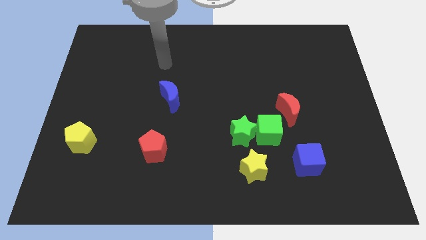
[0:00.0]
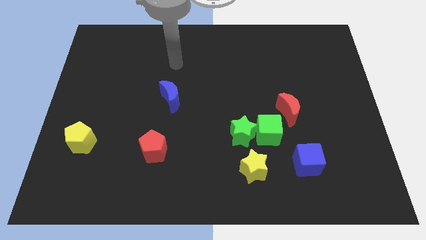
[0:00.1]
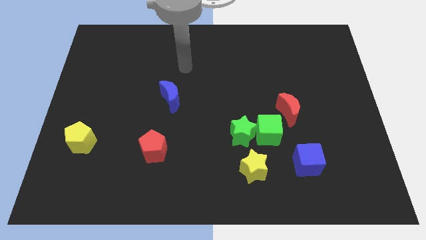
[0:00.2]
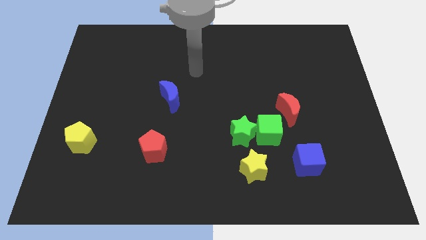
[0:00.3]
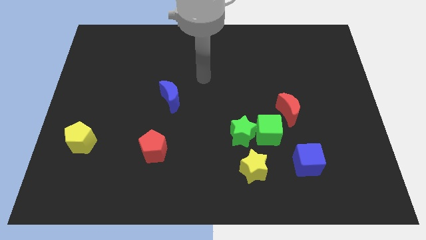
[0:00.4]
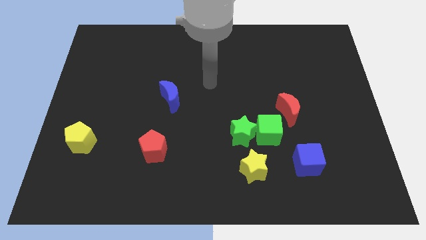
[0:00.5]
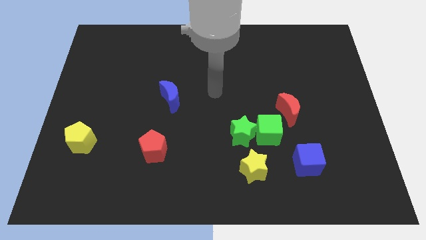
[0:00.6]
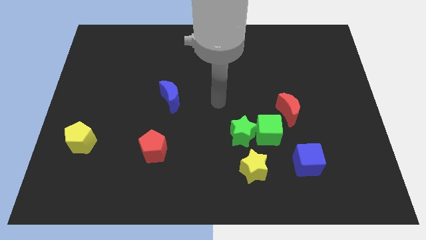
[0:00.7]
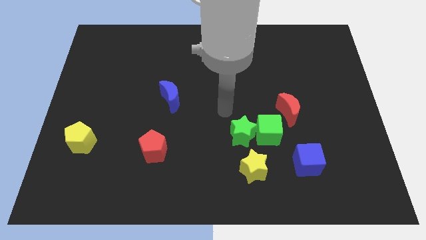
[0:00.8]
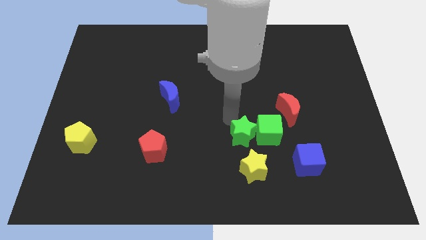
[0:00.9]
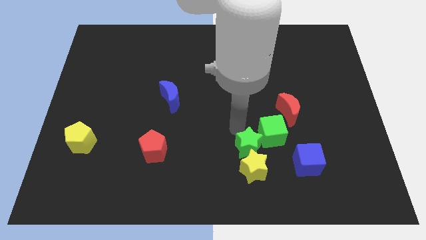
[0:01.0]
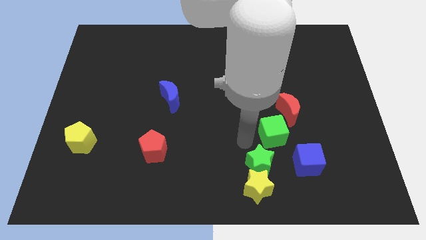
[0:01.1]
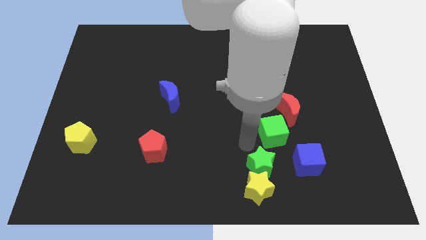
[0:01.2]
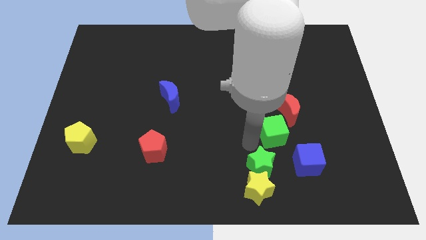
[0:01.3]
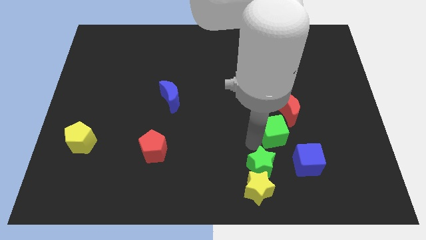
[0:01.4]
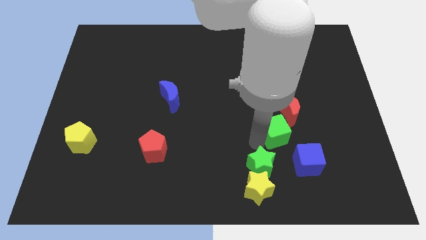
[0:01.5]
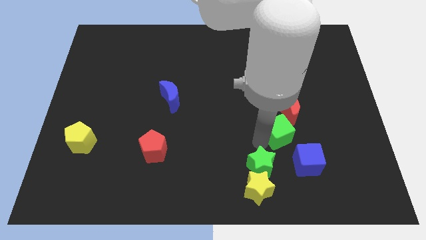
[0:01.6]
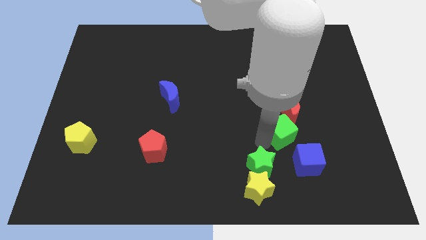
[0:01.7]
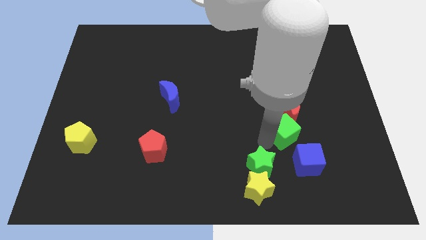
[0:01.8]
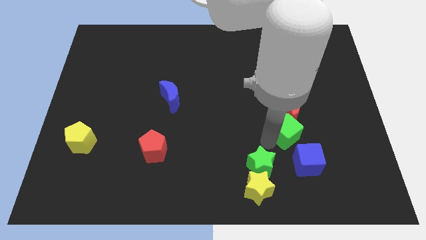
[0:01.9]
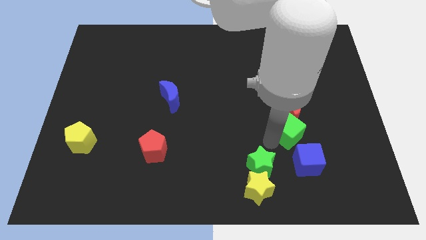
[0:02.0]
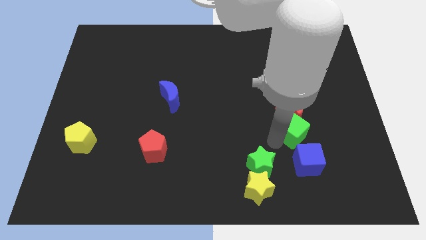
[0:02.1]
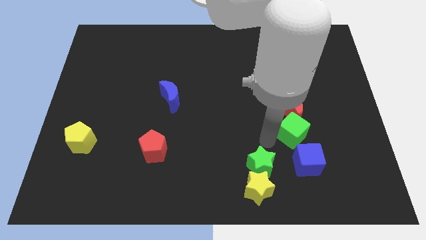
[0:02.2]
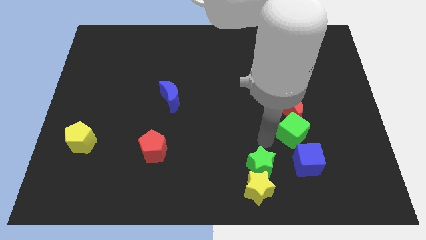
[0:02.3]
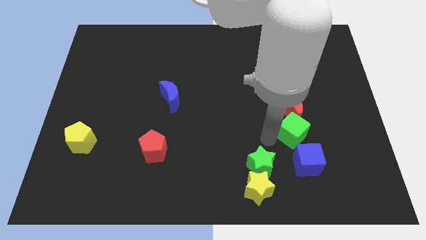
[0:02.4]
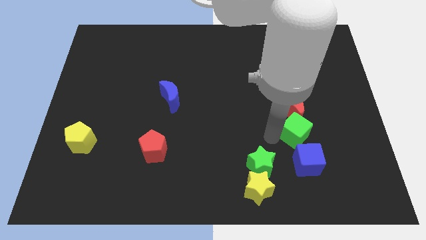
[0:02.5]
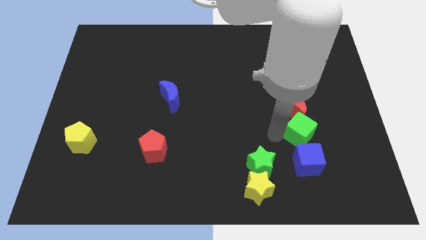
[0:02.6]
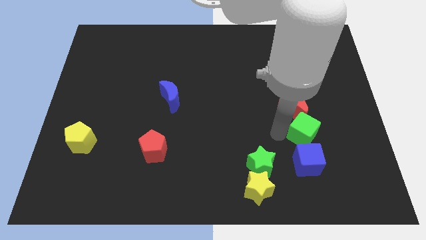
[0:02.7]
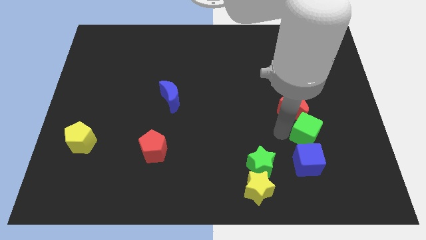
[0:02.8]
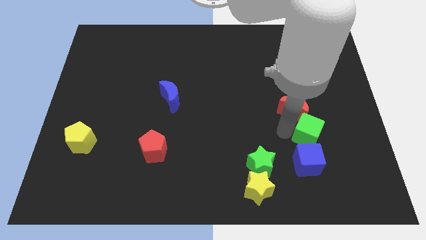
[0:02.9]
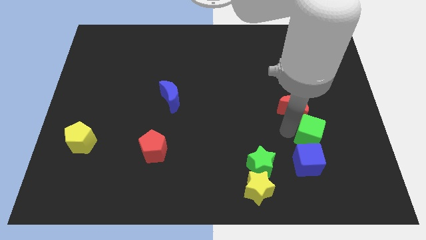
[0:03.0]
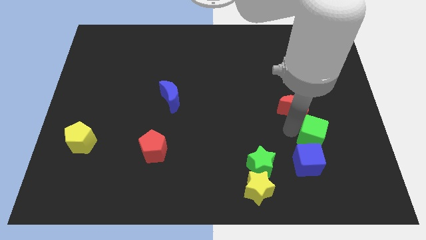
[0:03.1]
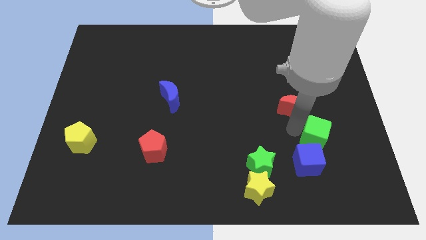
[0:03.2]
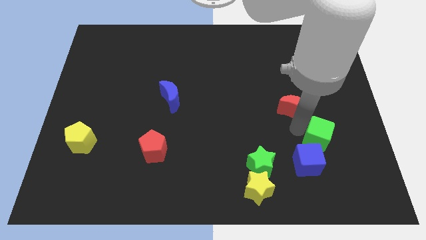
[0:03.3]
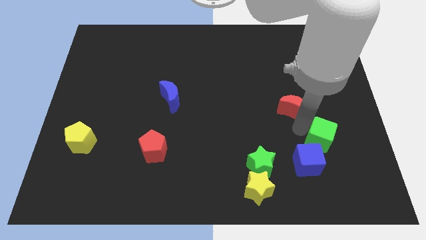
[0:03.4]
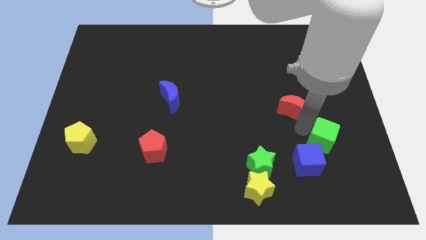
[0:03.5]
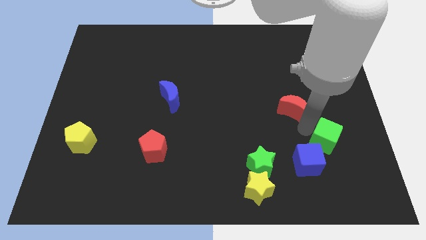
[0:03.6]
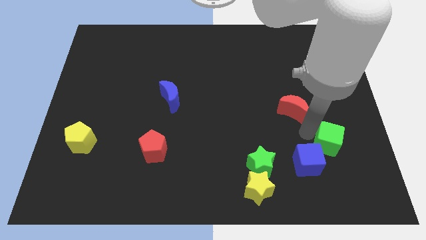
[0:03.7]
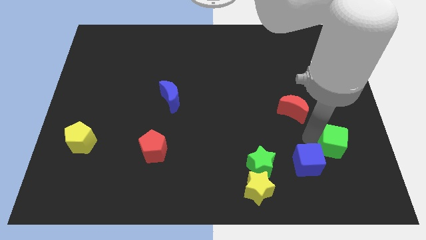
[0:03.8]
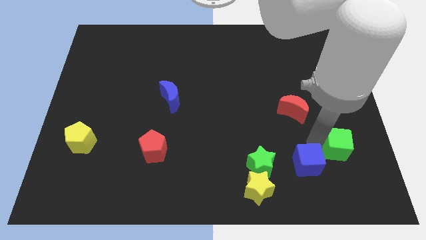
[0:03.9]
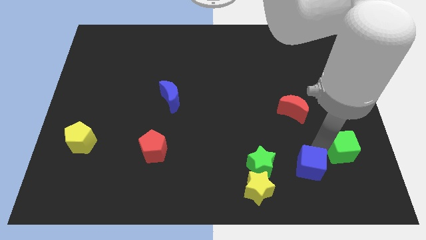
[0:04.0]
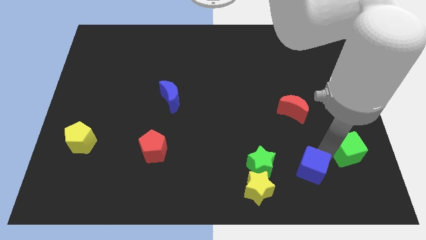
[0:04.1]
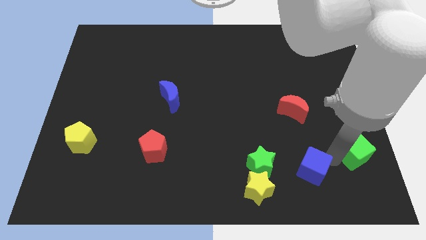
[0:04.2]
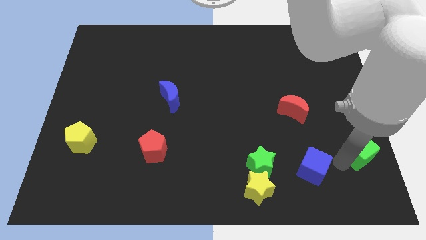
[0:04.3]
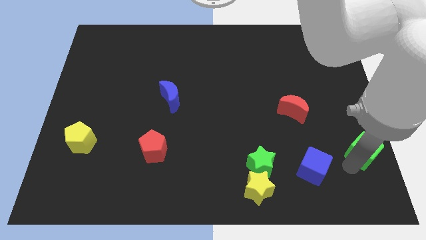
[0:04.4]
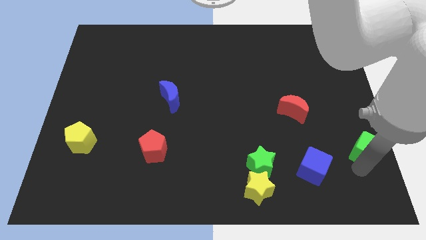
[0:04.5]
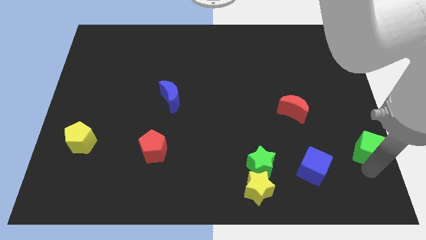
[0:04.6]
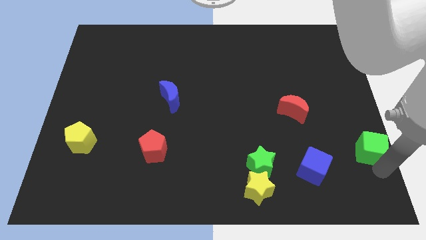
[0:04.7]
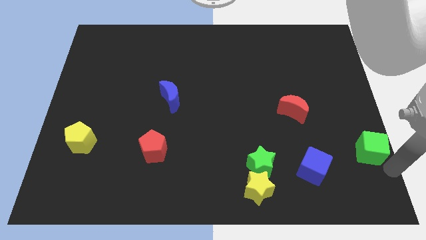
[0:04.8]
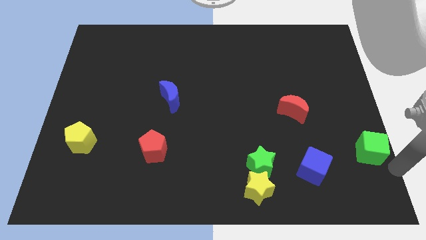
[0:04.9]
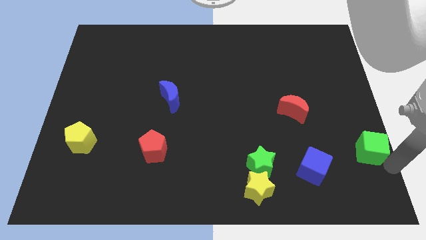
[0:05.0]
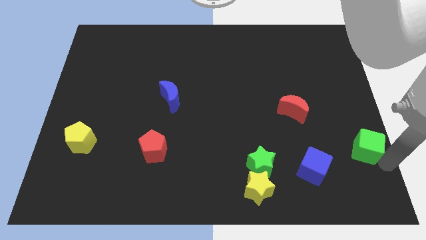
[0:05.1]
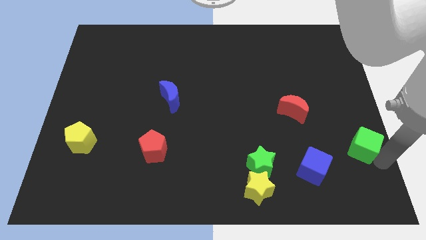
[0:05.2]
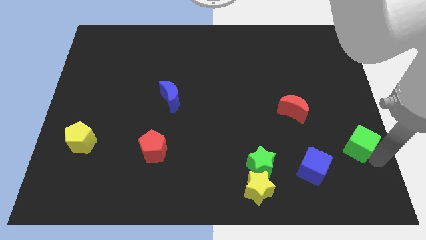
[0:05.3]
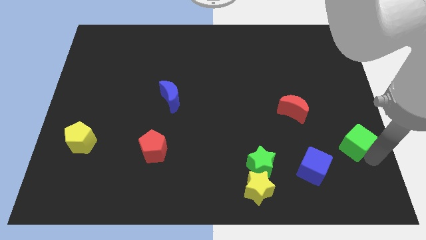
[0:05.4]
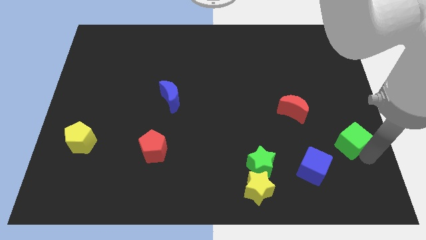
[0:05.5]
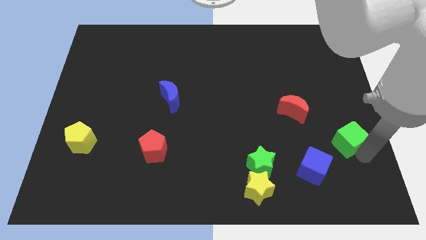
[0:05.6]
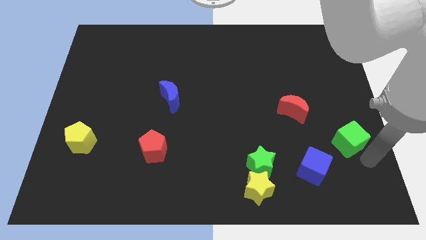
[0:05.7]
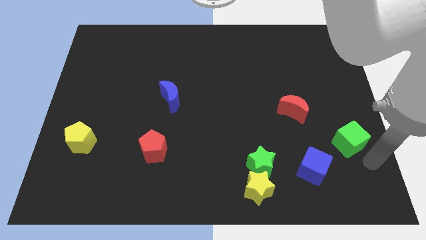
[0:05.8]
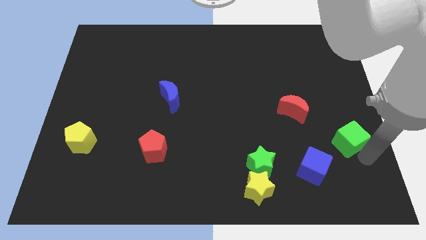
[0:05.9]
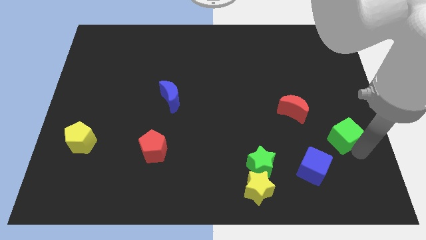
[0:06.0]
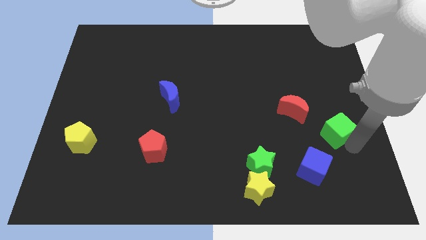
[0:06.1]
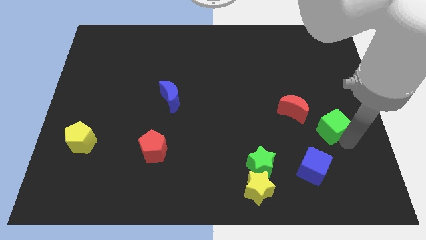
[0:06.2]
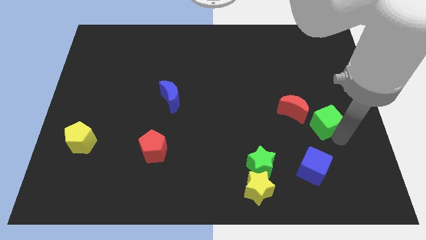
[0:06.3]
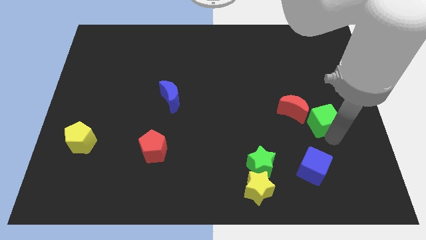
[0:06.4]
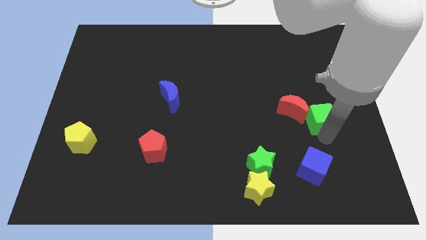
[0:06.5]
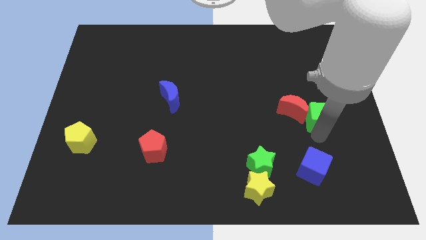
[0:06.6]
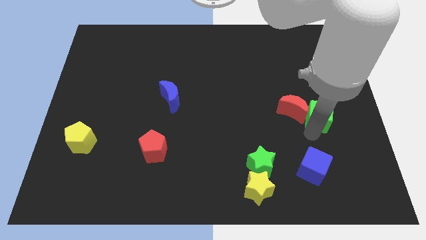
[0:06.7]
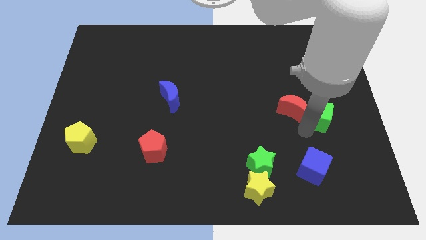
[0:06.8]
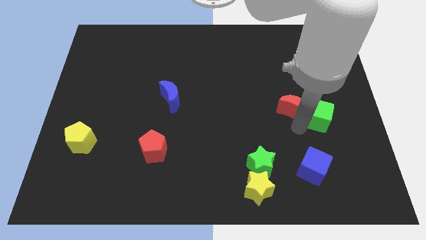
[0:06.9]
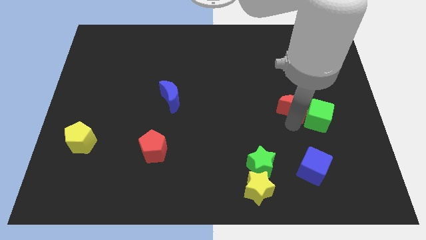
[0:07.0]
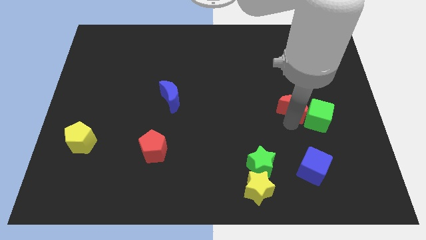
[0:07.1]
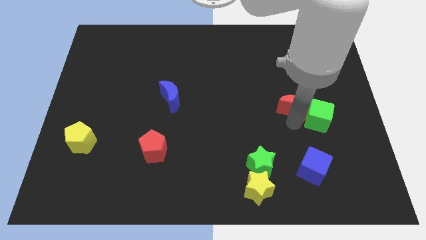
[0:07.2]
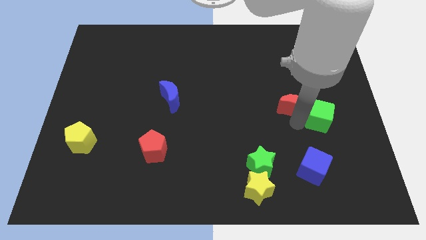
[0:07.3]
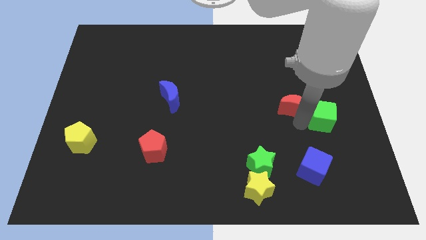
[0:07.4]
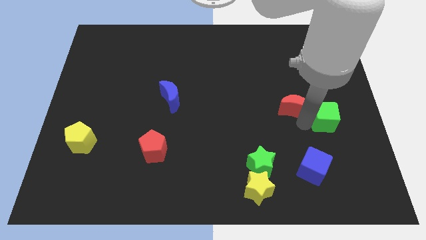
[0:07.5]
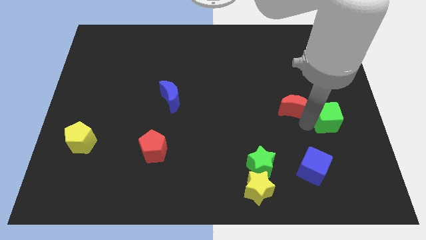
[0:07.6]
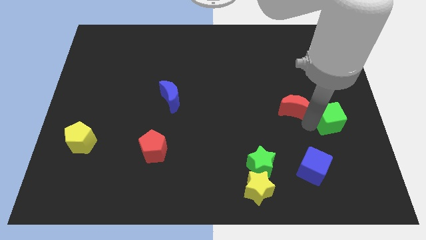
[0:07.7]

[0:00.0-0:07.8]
slide the green cube to the center right
